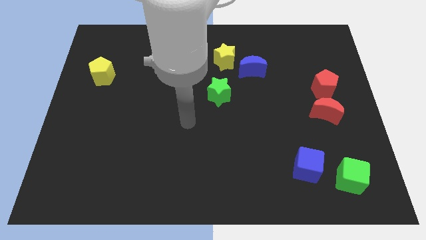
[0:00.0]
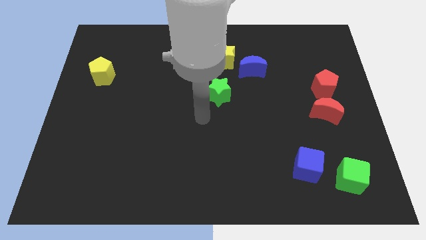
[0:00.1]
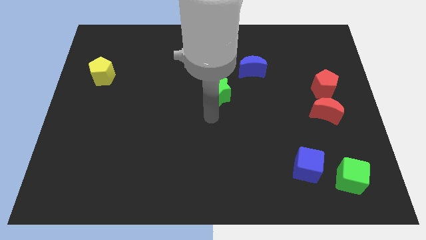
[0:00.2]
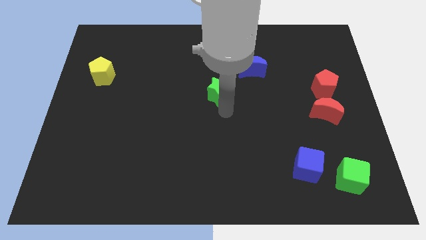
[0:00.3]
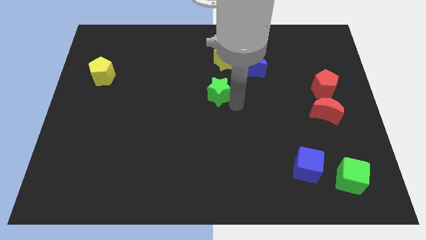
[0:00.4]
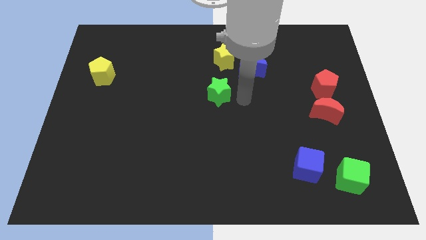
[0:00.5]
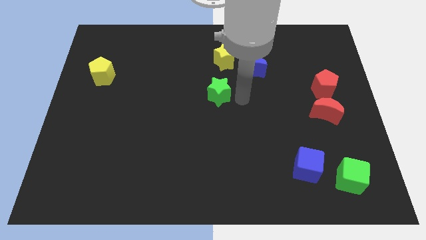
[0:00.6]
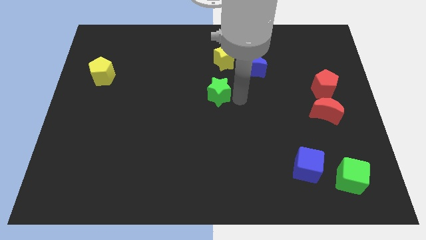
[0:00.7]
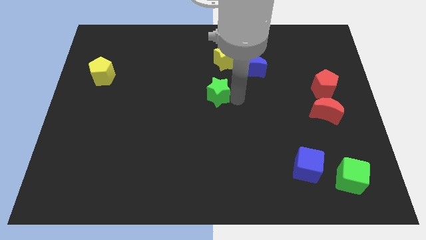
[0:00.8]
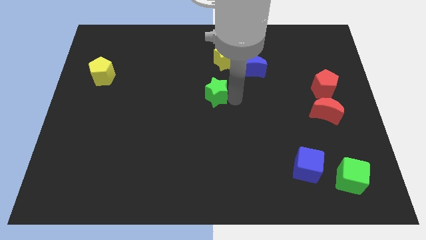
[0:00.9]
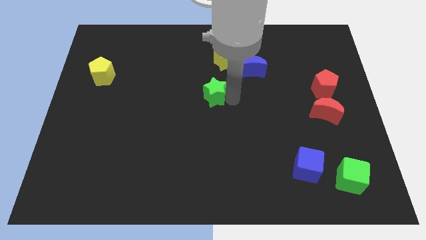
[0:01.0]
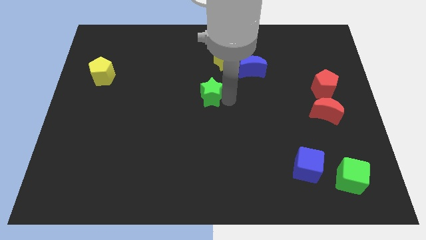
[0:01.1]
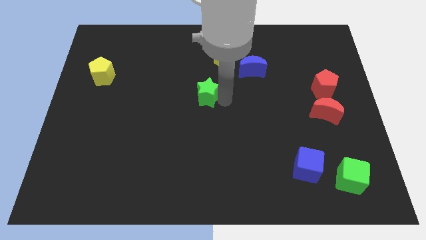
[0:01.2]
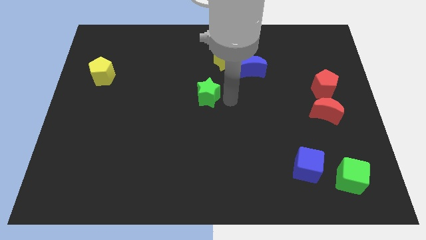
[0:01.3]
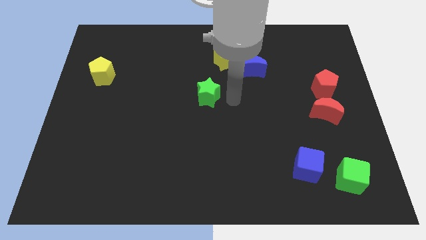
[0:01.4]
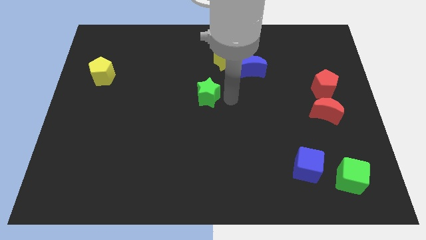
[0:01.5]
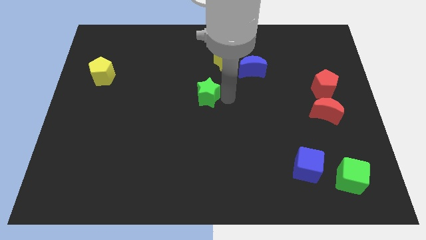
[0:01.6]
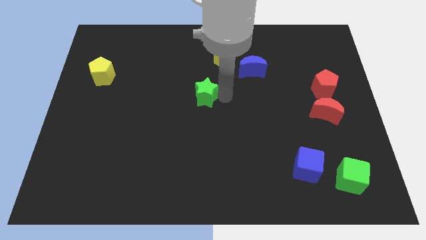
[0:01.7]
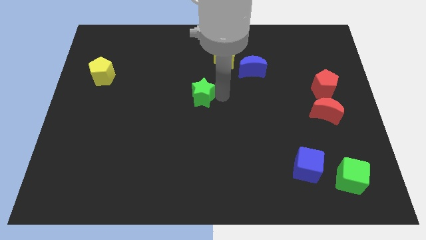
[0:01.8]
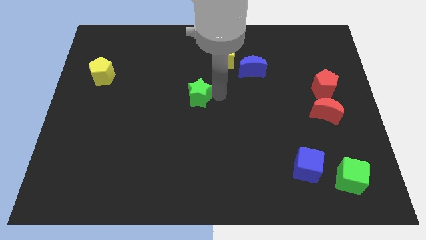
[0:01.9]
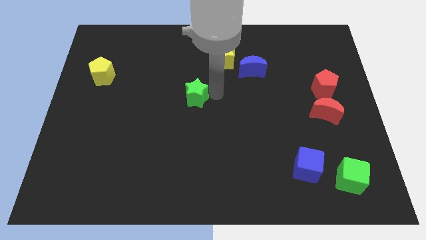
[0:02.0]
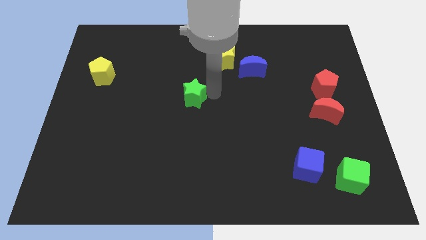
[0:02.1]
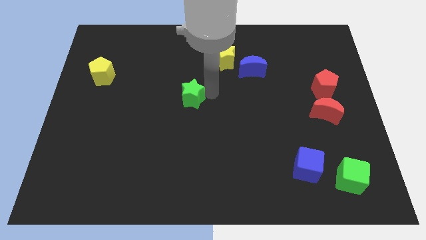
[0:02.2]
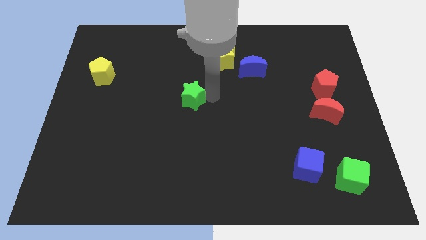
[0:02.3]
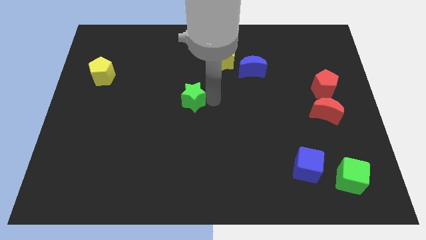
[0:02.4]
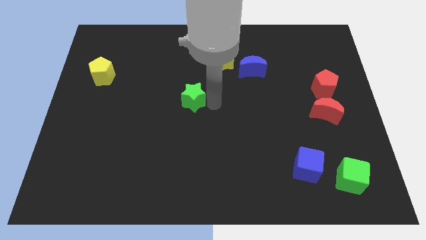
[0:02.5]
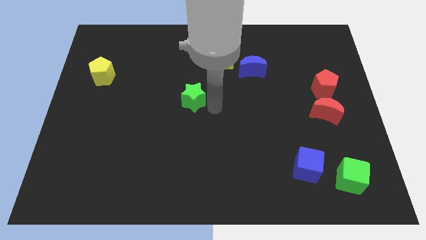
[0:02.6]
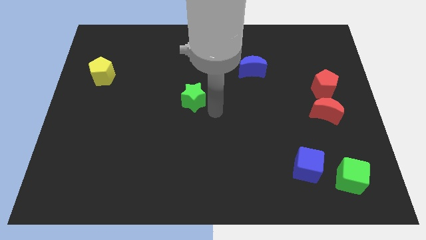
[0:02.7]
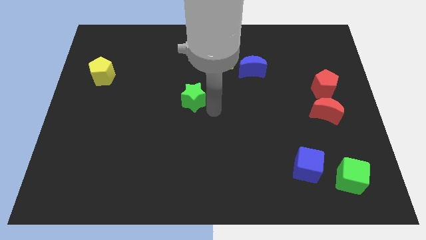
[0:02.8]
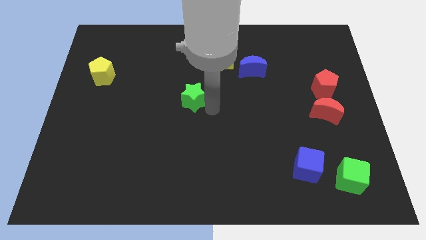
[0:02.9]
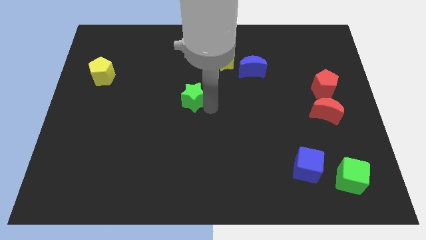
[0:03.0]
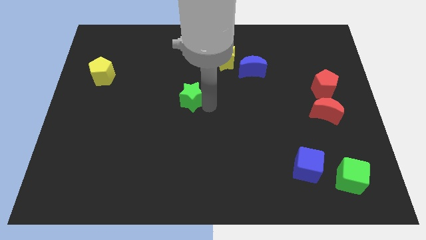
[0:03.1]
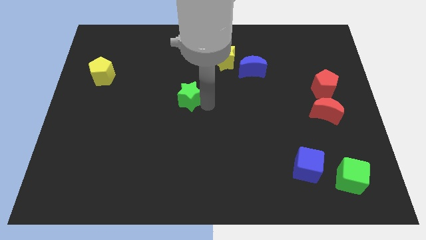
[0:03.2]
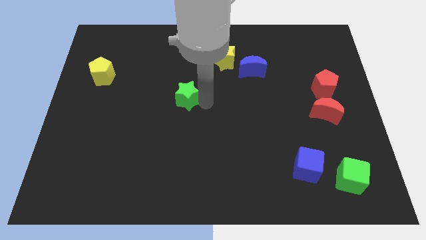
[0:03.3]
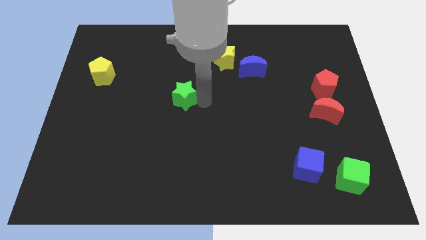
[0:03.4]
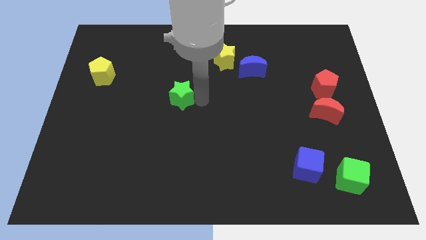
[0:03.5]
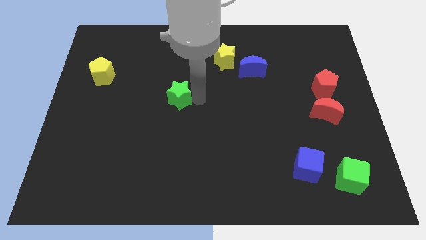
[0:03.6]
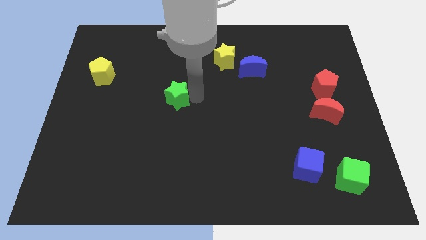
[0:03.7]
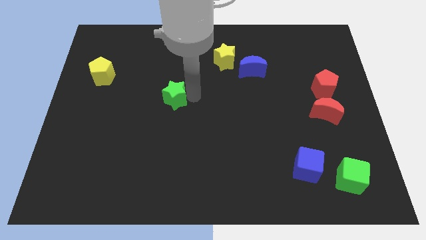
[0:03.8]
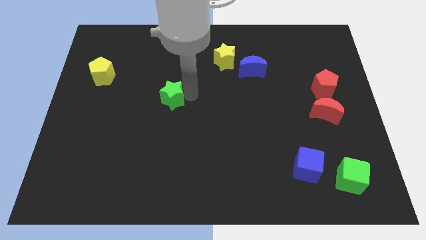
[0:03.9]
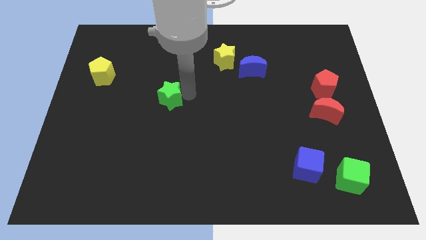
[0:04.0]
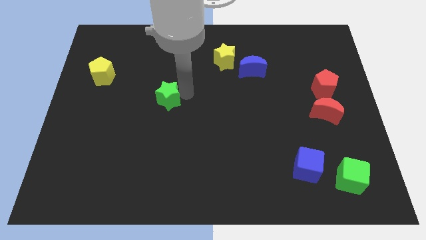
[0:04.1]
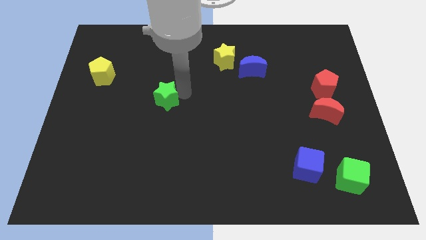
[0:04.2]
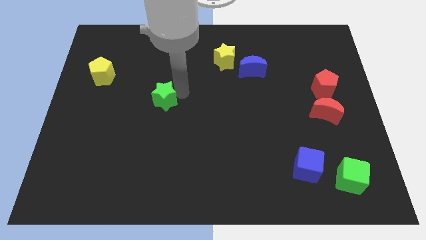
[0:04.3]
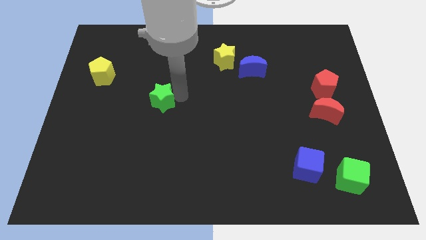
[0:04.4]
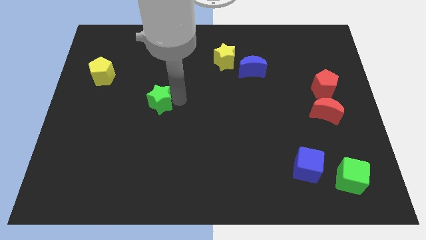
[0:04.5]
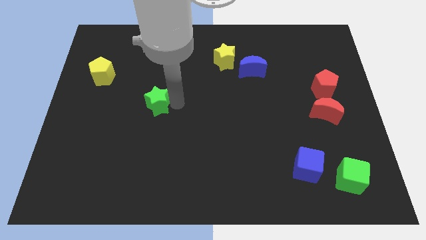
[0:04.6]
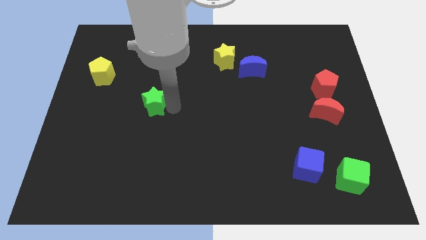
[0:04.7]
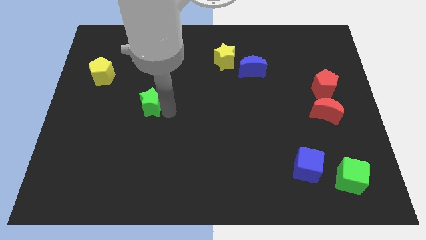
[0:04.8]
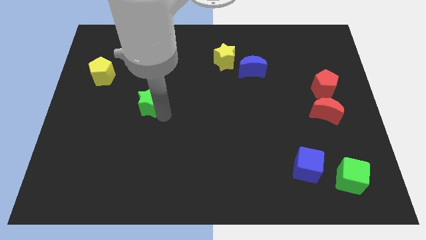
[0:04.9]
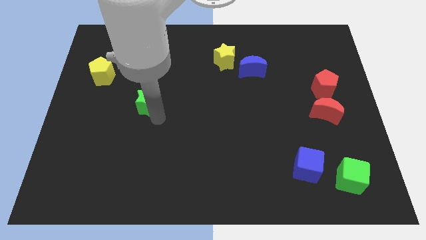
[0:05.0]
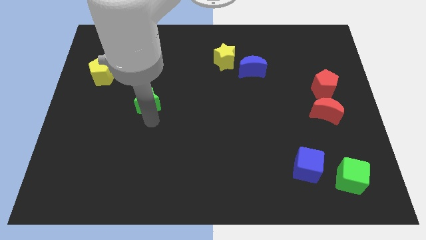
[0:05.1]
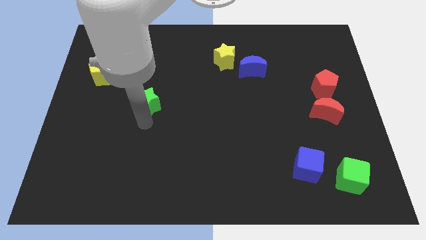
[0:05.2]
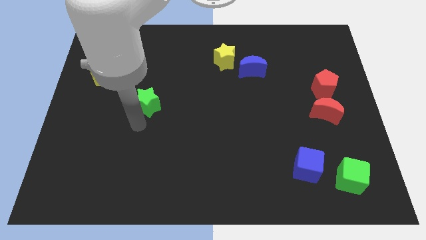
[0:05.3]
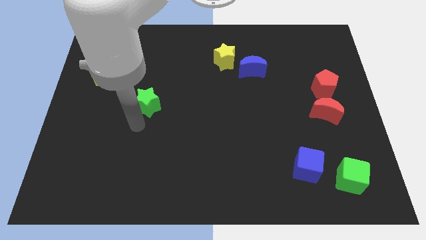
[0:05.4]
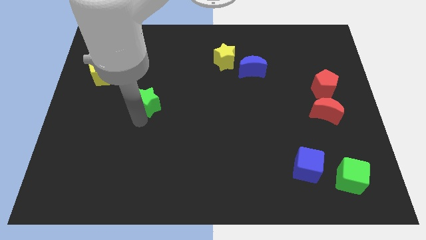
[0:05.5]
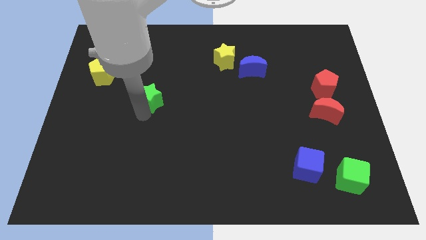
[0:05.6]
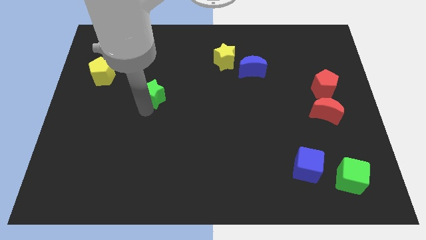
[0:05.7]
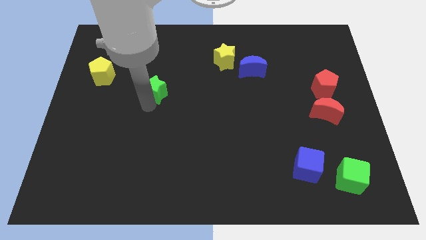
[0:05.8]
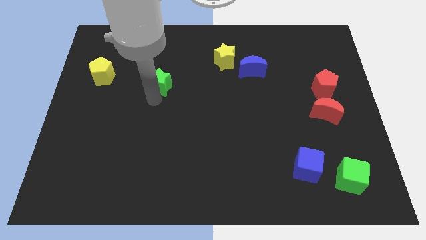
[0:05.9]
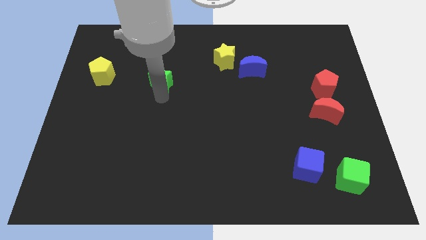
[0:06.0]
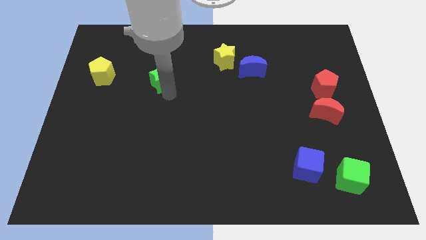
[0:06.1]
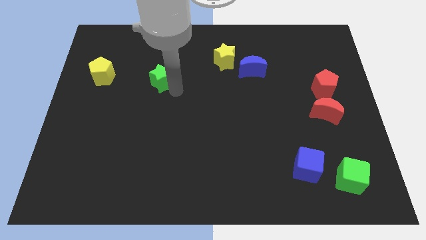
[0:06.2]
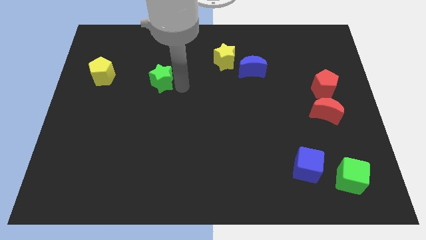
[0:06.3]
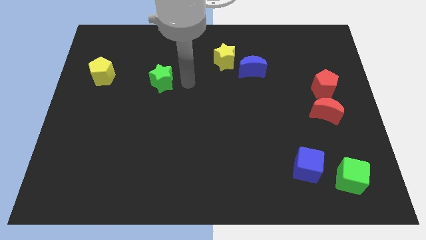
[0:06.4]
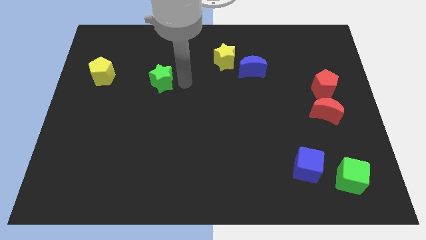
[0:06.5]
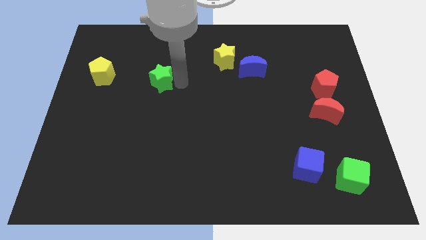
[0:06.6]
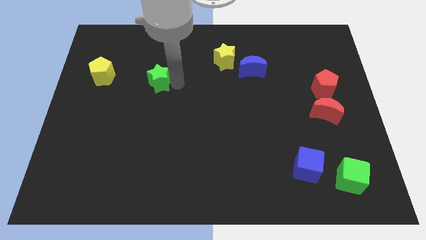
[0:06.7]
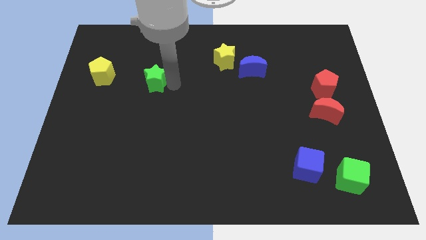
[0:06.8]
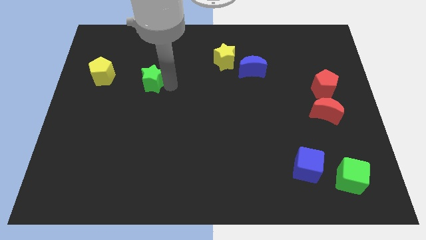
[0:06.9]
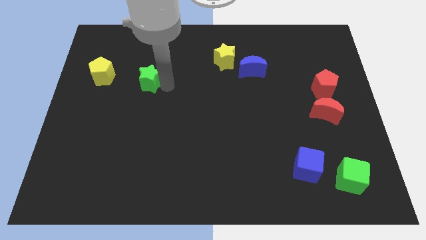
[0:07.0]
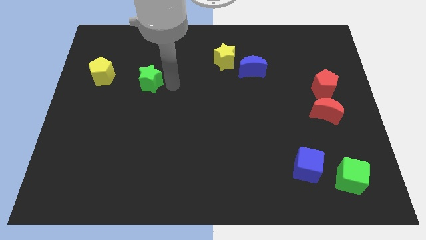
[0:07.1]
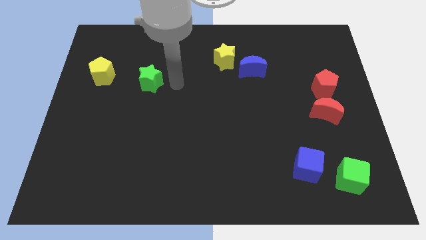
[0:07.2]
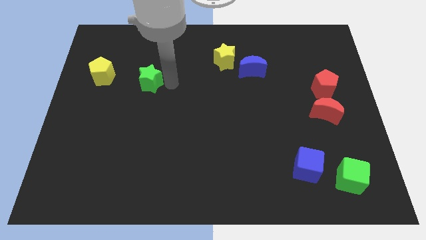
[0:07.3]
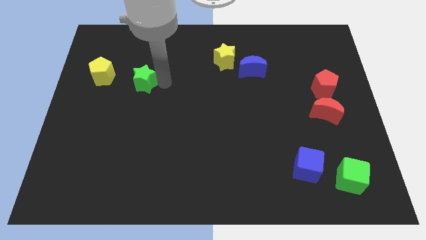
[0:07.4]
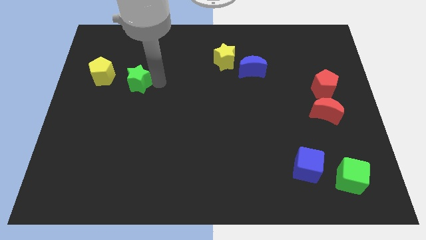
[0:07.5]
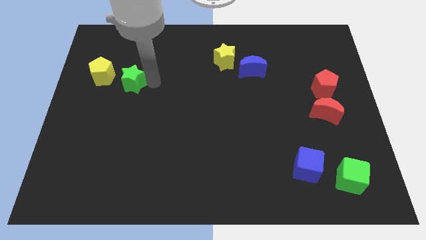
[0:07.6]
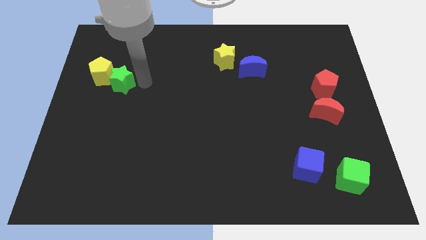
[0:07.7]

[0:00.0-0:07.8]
push the green star next to the yellow pentagon
